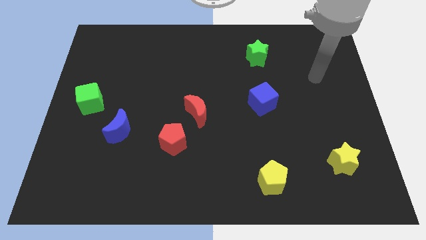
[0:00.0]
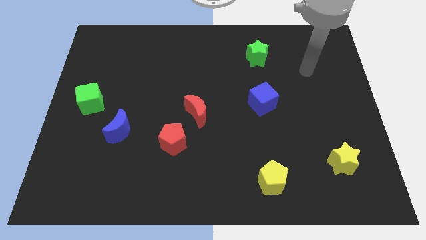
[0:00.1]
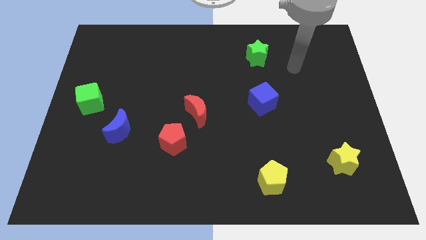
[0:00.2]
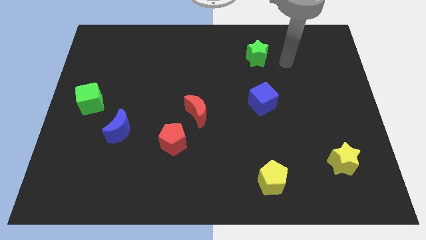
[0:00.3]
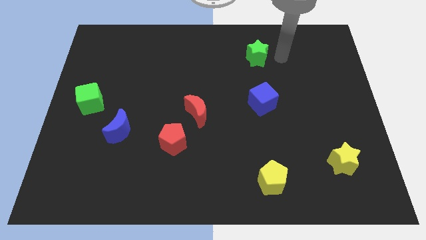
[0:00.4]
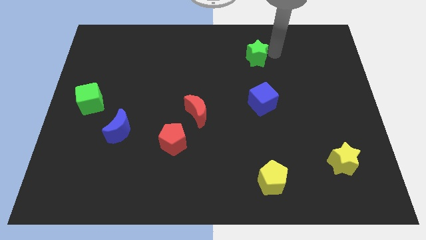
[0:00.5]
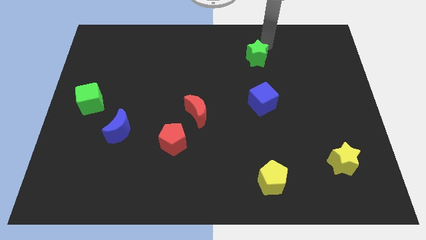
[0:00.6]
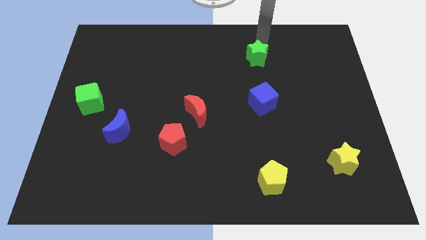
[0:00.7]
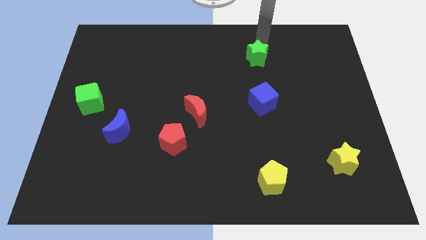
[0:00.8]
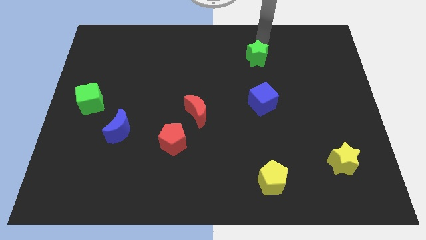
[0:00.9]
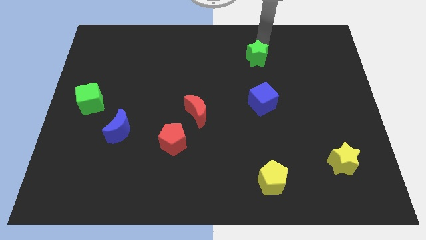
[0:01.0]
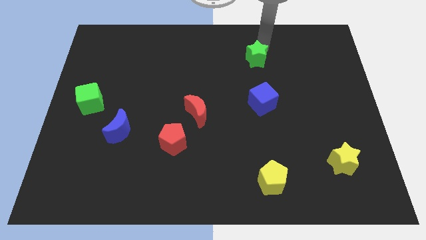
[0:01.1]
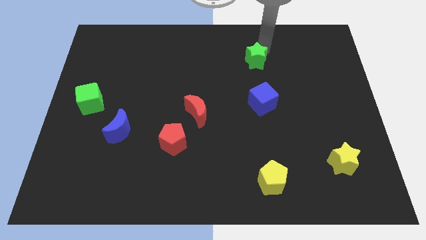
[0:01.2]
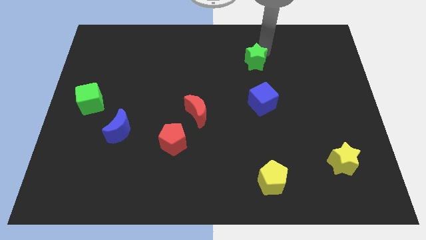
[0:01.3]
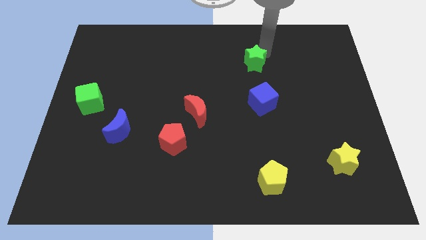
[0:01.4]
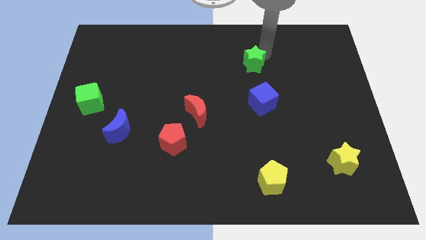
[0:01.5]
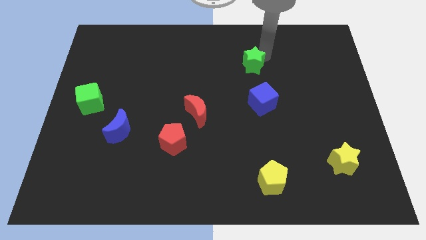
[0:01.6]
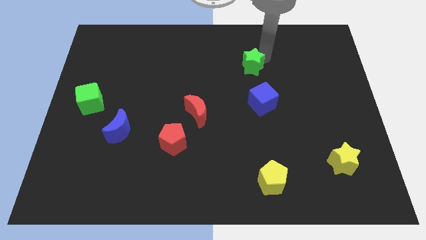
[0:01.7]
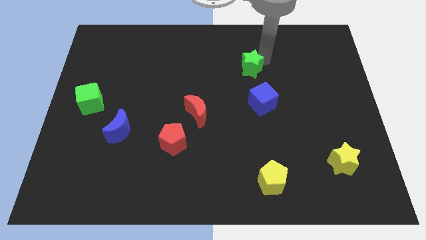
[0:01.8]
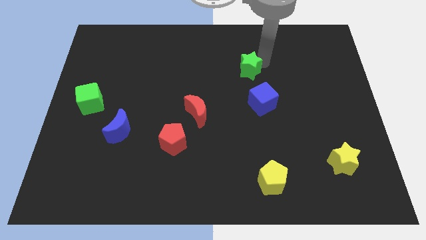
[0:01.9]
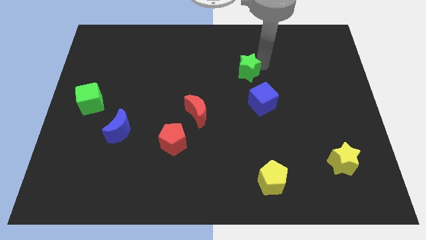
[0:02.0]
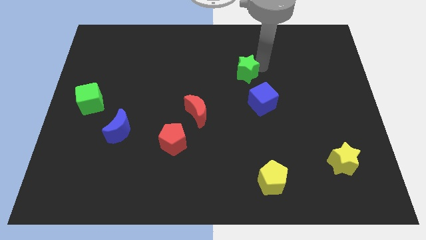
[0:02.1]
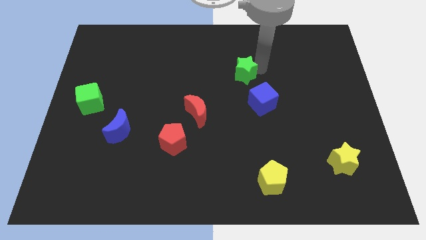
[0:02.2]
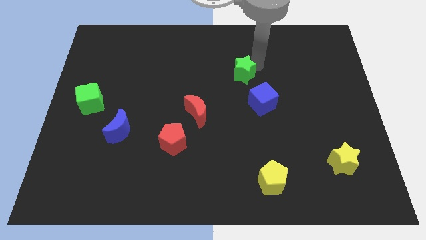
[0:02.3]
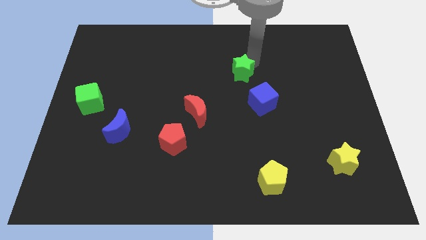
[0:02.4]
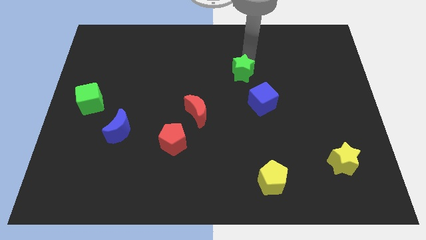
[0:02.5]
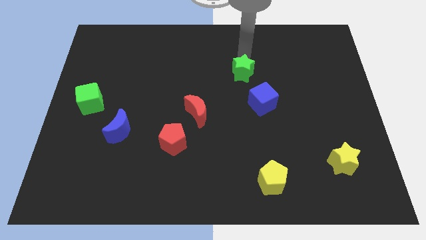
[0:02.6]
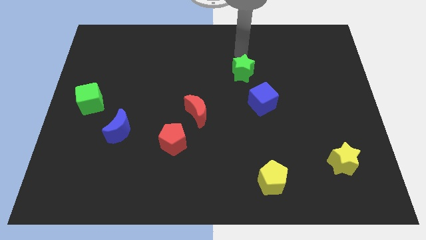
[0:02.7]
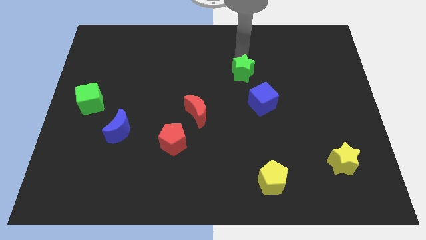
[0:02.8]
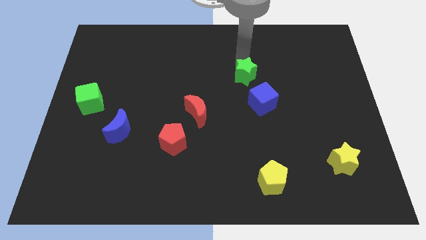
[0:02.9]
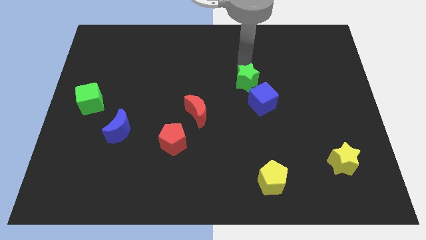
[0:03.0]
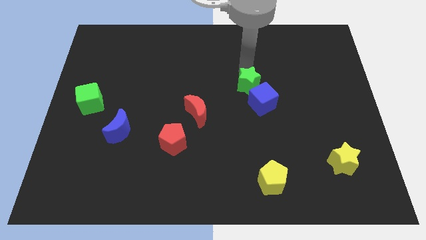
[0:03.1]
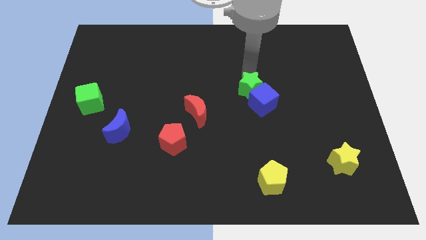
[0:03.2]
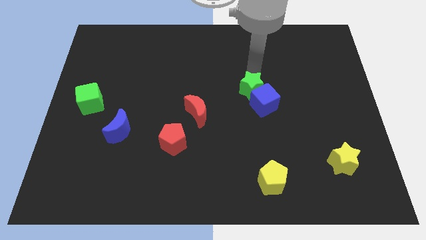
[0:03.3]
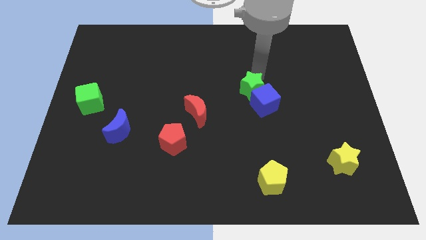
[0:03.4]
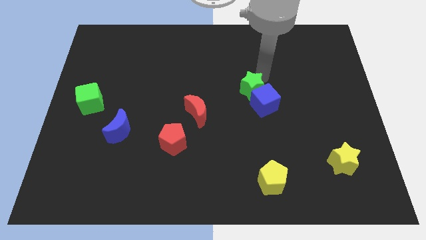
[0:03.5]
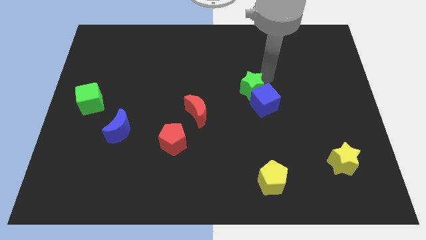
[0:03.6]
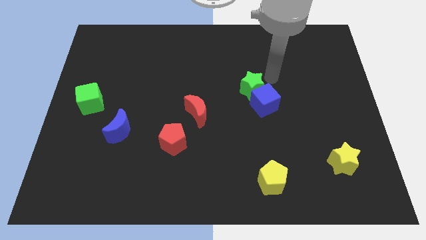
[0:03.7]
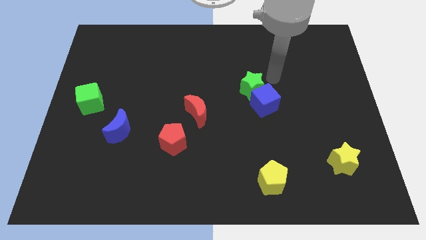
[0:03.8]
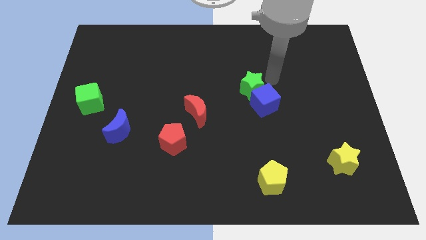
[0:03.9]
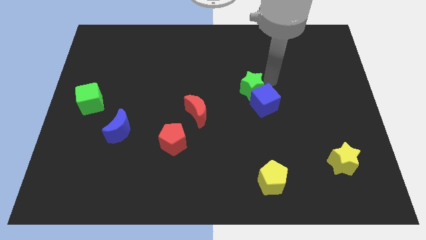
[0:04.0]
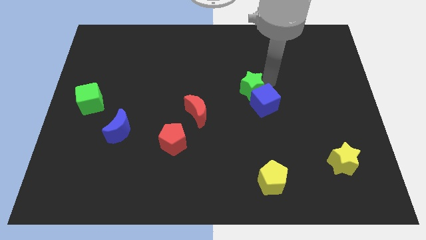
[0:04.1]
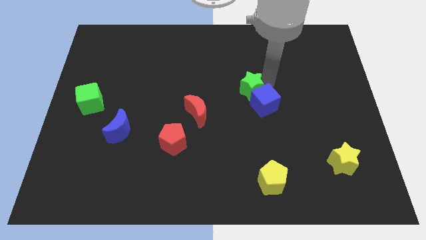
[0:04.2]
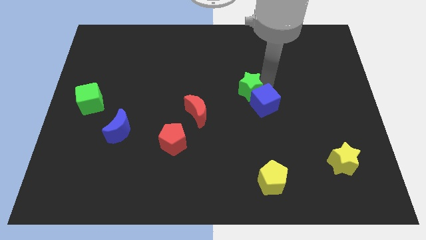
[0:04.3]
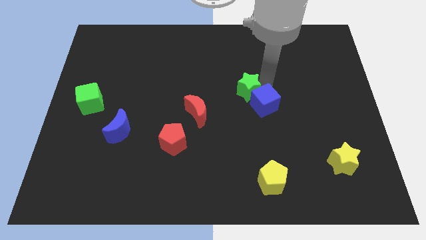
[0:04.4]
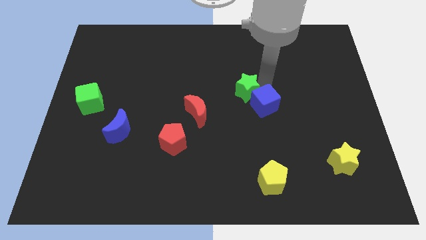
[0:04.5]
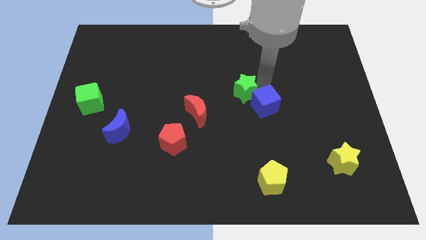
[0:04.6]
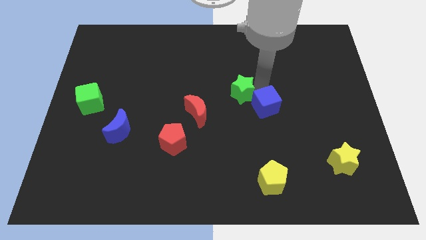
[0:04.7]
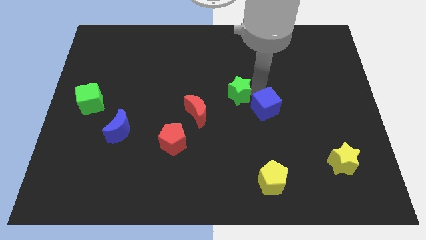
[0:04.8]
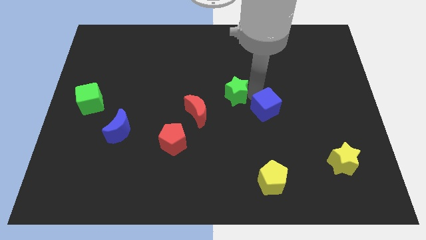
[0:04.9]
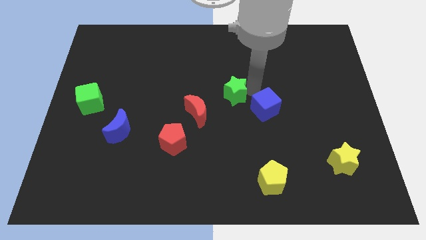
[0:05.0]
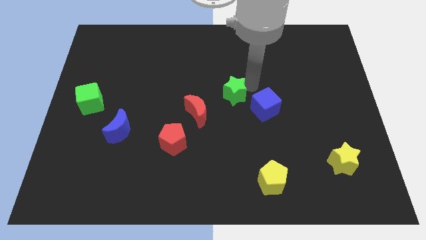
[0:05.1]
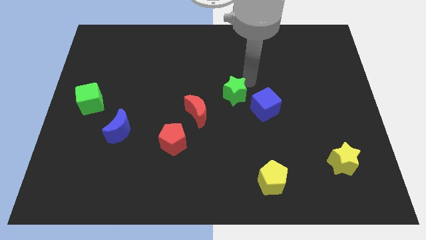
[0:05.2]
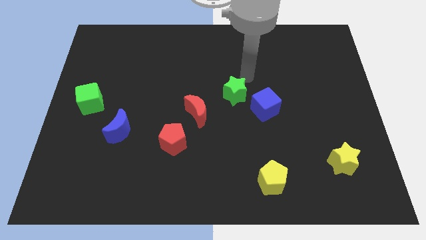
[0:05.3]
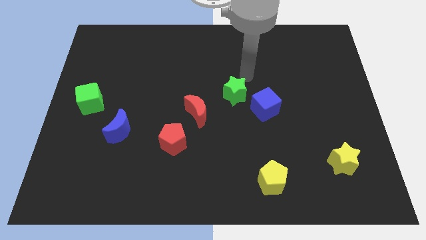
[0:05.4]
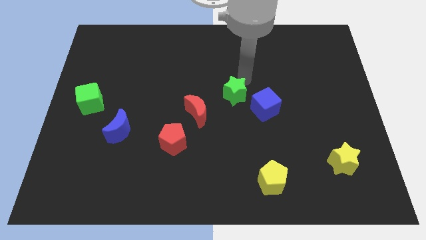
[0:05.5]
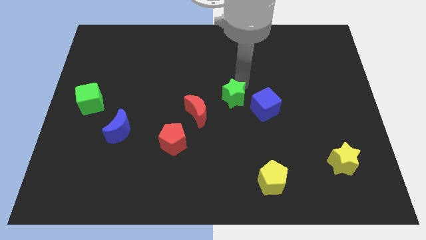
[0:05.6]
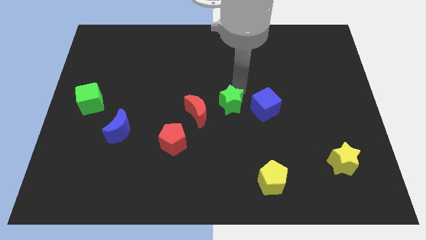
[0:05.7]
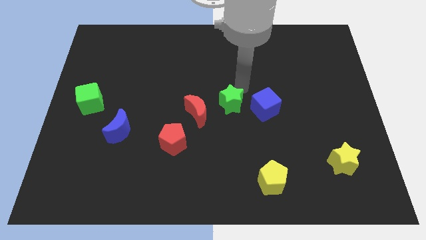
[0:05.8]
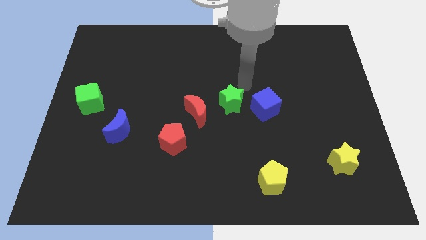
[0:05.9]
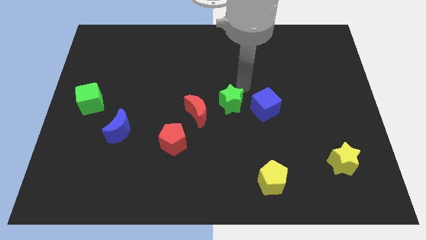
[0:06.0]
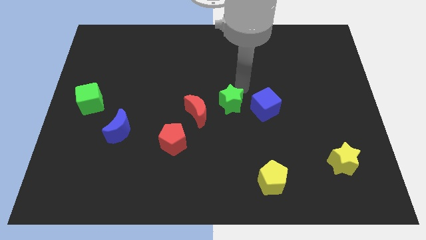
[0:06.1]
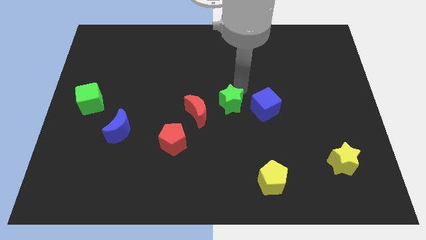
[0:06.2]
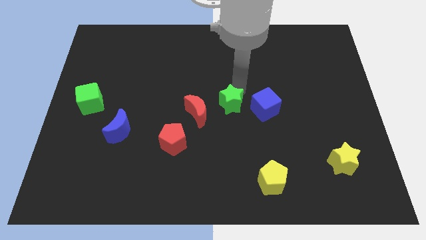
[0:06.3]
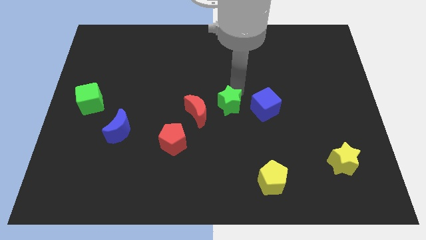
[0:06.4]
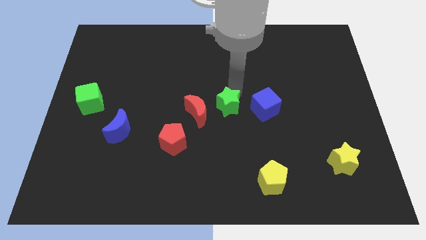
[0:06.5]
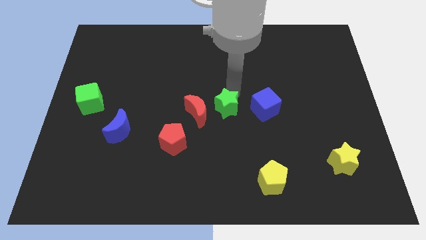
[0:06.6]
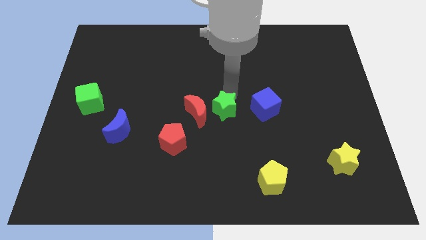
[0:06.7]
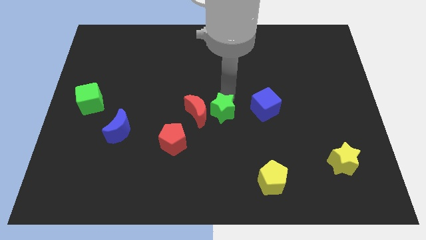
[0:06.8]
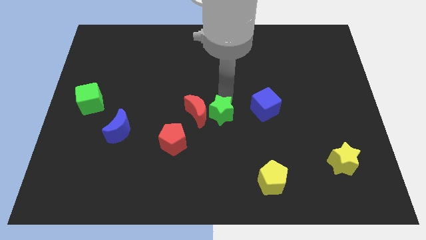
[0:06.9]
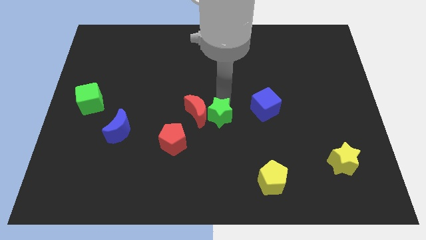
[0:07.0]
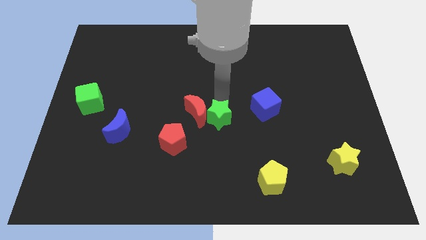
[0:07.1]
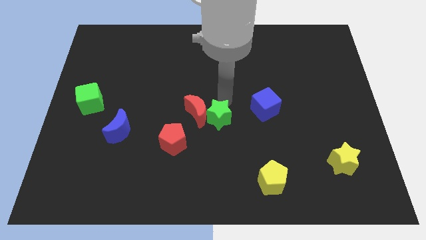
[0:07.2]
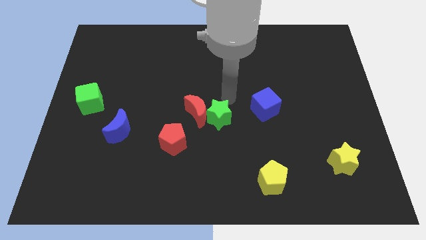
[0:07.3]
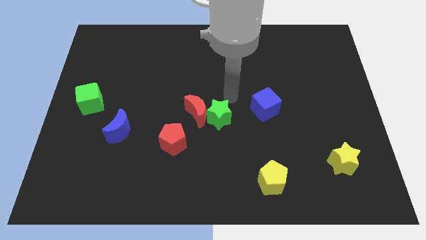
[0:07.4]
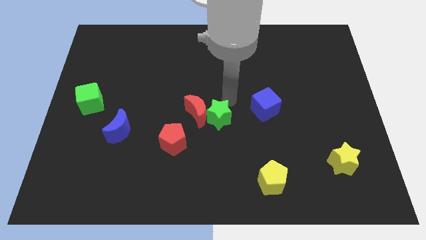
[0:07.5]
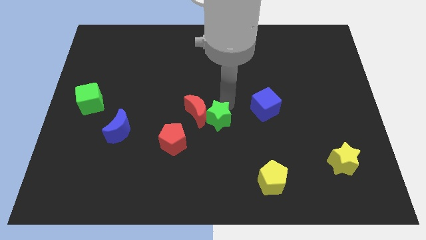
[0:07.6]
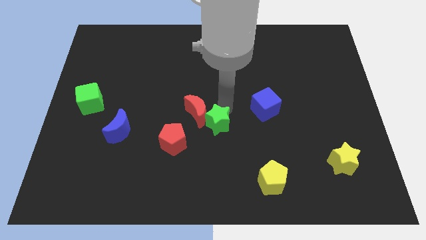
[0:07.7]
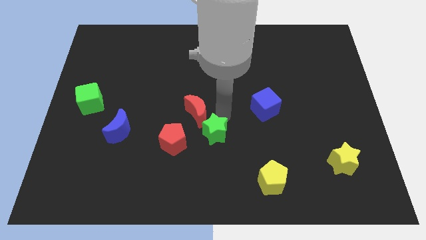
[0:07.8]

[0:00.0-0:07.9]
push the green star to the bottom of the red moon
